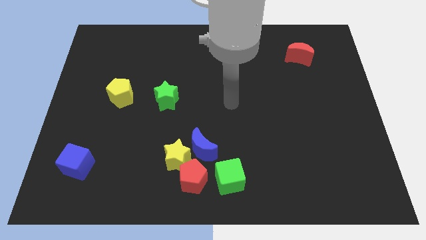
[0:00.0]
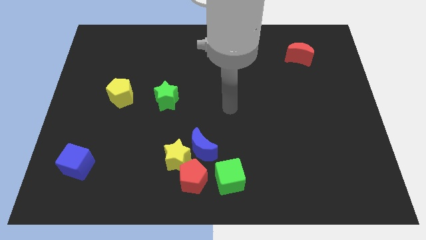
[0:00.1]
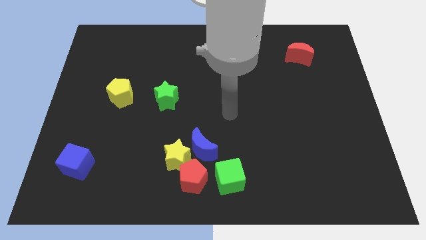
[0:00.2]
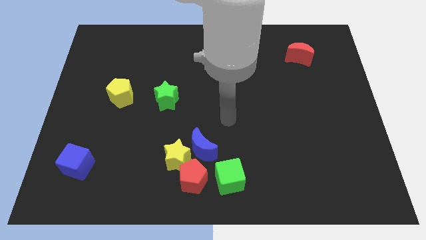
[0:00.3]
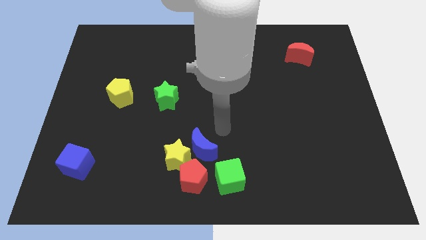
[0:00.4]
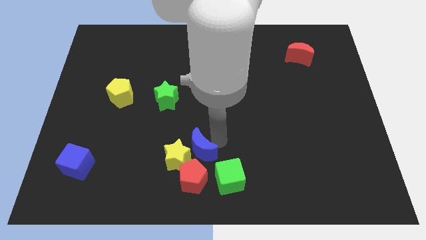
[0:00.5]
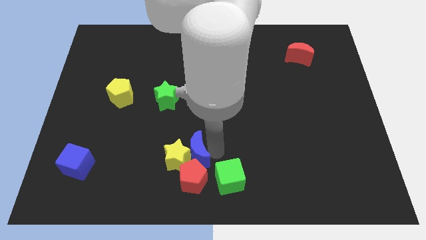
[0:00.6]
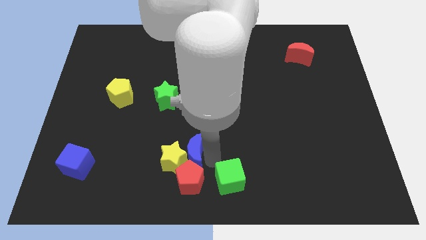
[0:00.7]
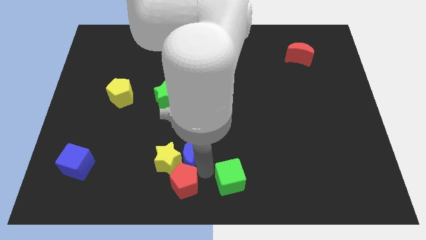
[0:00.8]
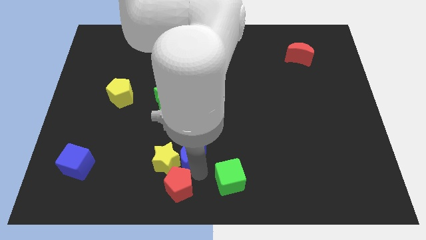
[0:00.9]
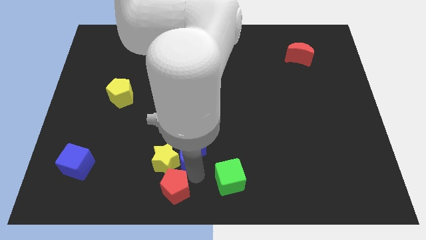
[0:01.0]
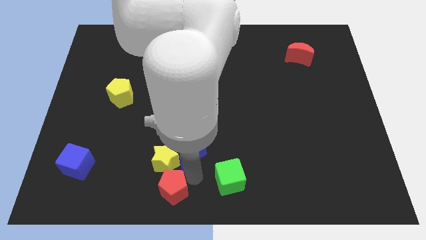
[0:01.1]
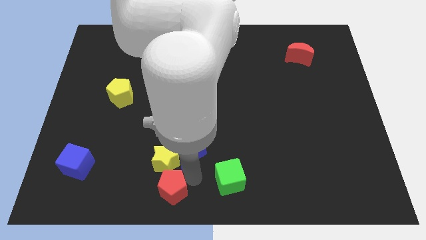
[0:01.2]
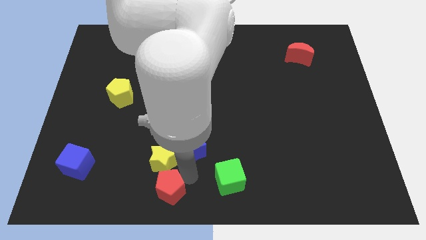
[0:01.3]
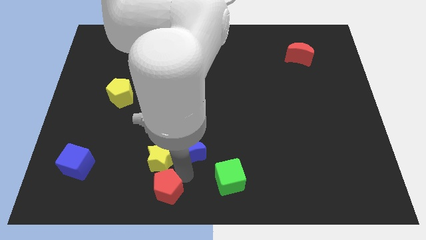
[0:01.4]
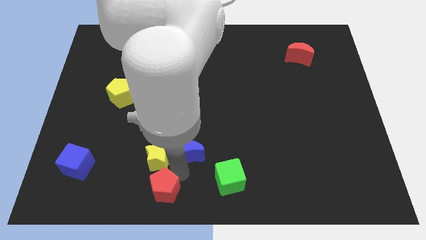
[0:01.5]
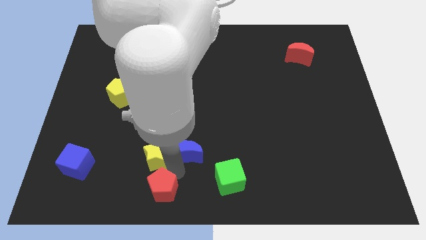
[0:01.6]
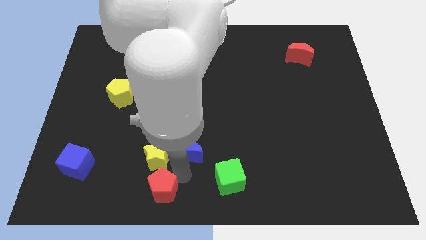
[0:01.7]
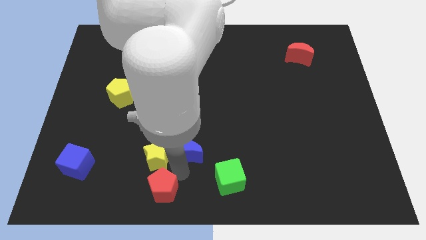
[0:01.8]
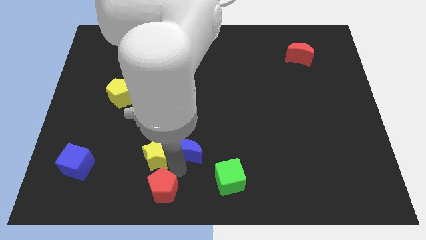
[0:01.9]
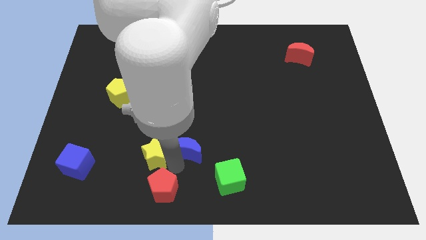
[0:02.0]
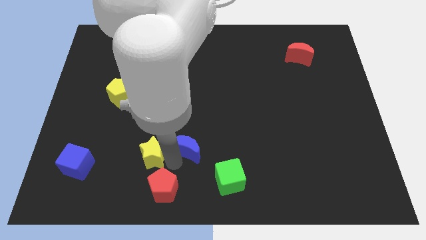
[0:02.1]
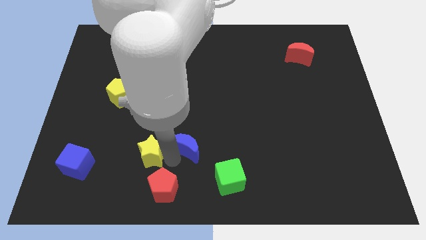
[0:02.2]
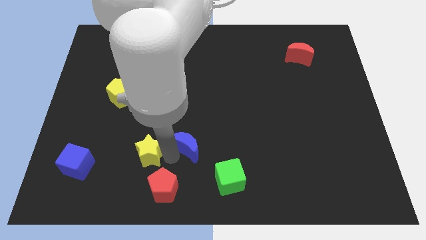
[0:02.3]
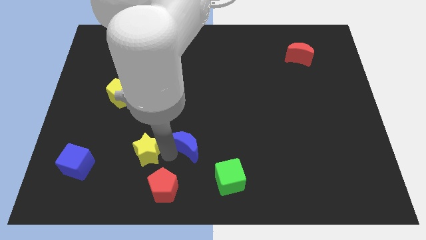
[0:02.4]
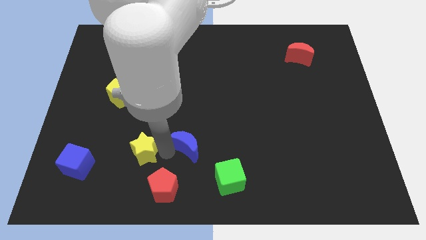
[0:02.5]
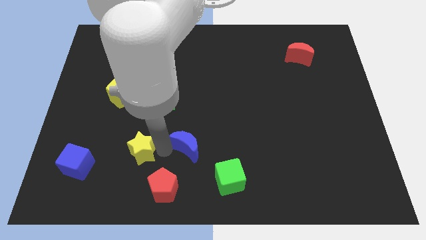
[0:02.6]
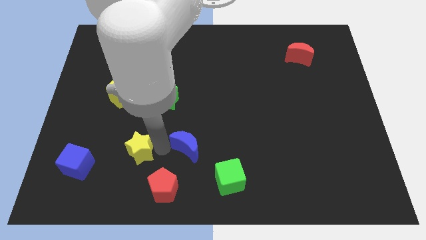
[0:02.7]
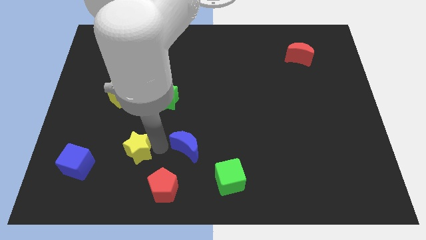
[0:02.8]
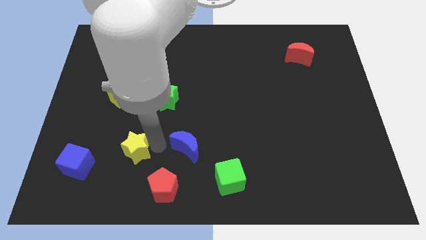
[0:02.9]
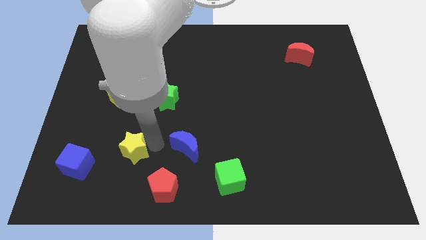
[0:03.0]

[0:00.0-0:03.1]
move the yellow star away from the blue moon and red pentagon

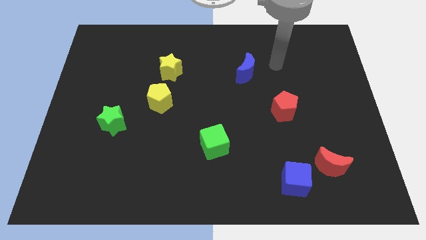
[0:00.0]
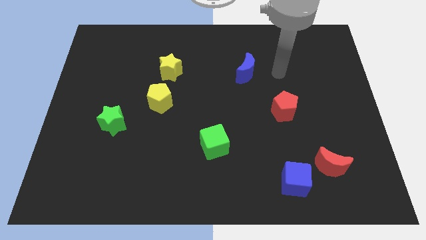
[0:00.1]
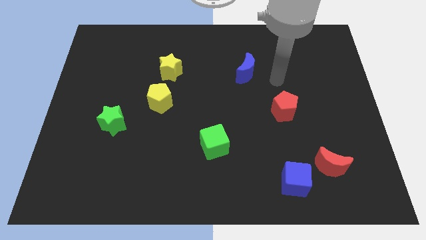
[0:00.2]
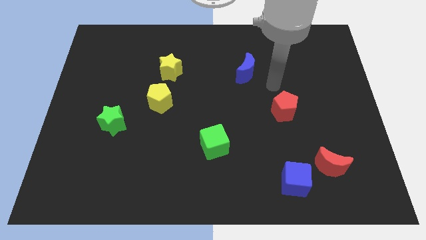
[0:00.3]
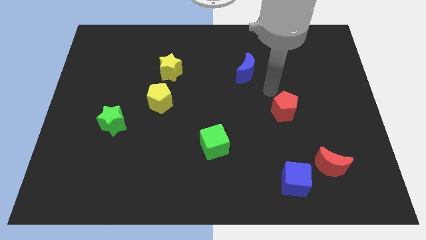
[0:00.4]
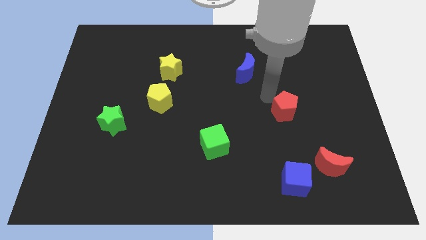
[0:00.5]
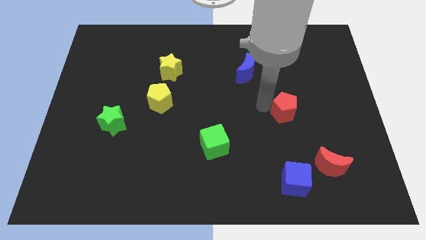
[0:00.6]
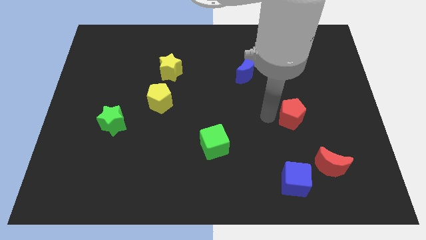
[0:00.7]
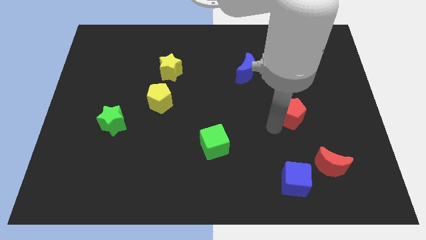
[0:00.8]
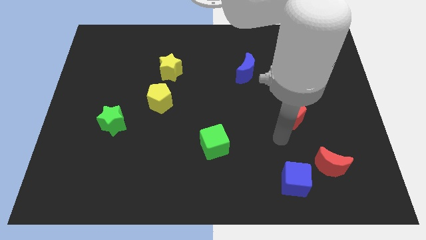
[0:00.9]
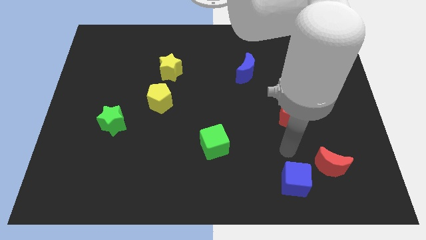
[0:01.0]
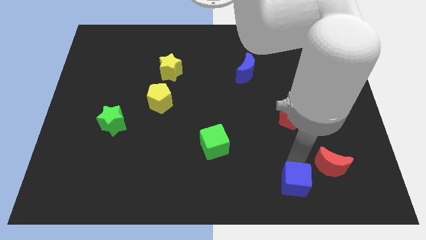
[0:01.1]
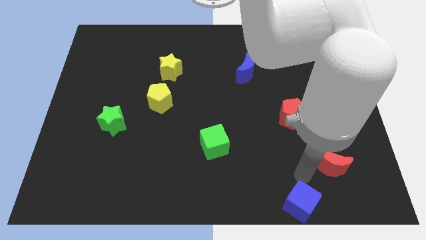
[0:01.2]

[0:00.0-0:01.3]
separate the red moon from the blue cube

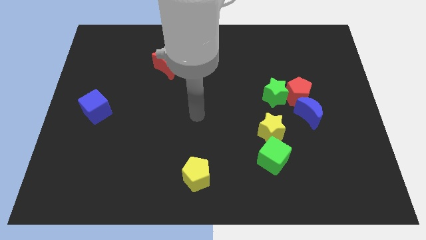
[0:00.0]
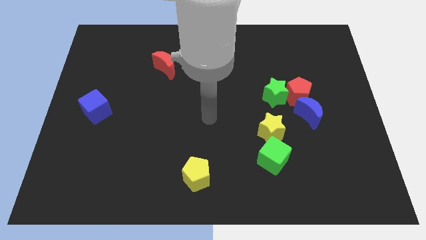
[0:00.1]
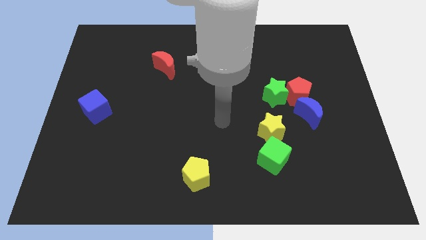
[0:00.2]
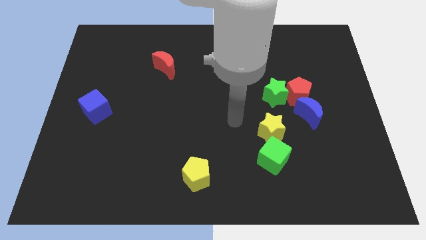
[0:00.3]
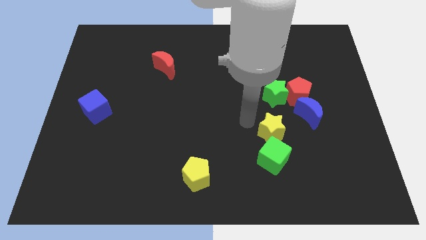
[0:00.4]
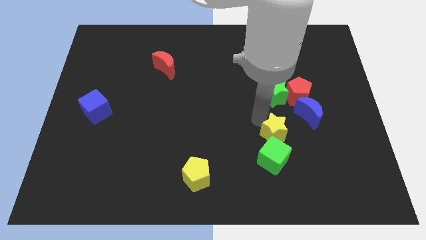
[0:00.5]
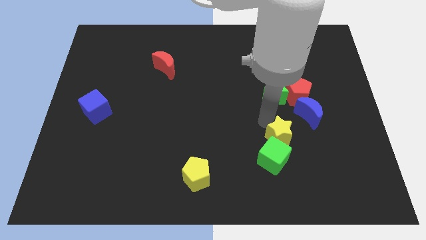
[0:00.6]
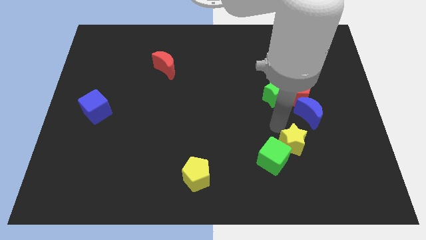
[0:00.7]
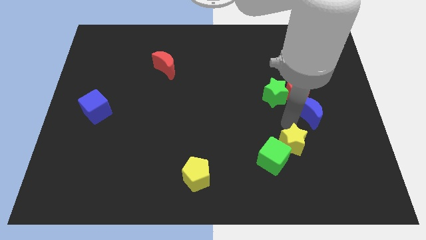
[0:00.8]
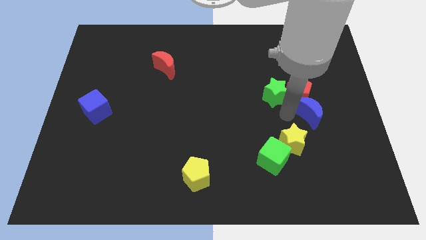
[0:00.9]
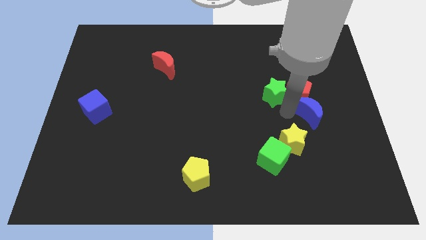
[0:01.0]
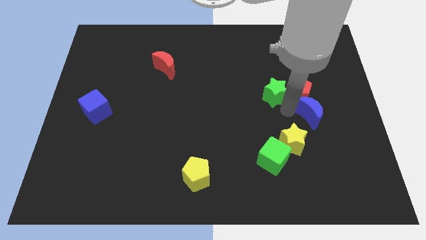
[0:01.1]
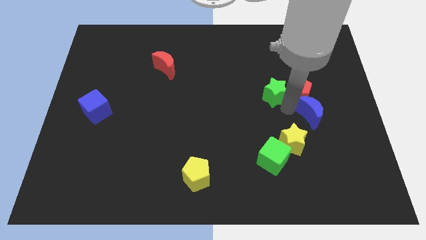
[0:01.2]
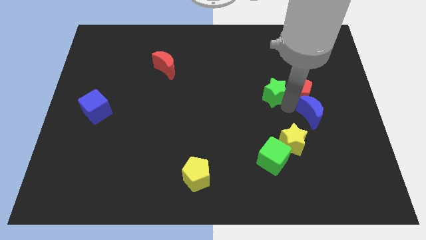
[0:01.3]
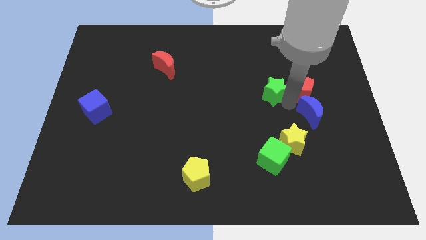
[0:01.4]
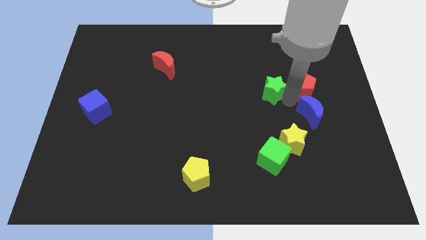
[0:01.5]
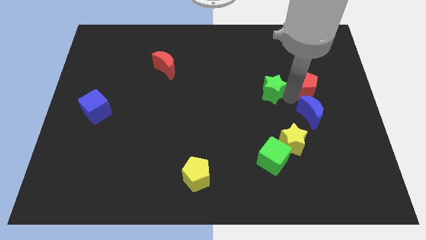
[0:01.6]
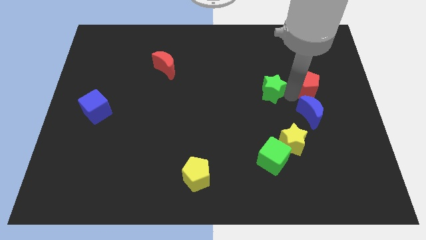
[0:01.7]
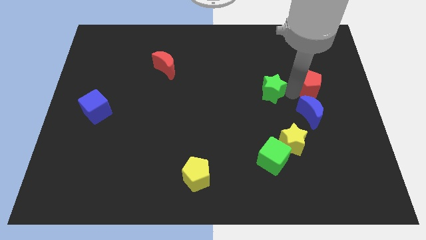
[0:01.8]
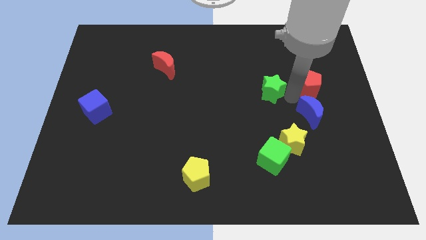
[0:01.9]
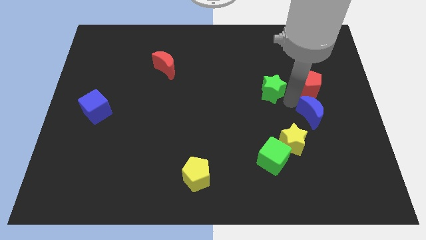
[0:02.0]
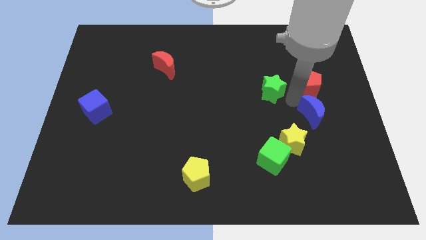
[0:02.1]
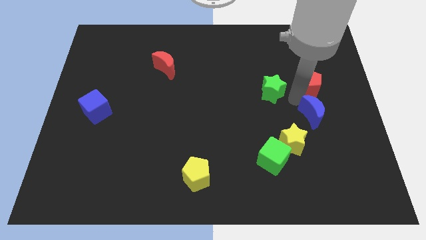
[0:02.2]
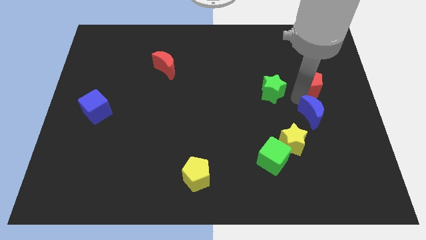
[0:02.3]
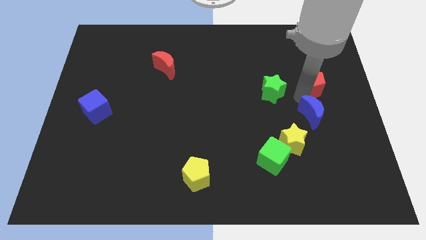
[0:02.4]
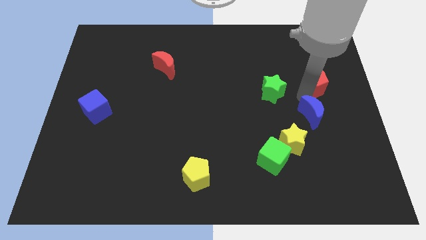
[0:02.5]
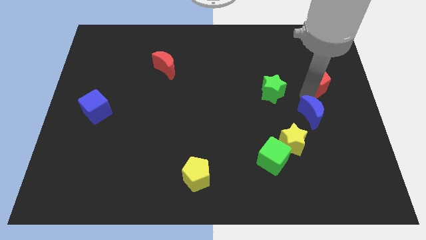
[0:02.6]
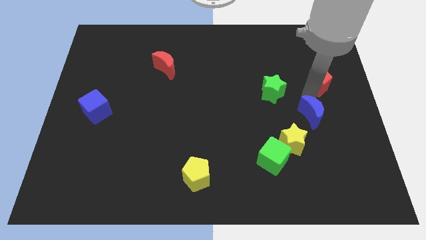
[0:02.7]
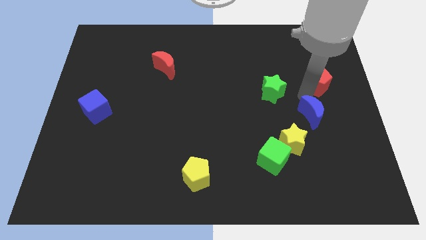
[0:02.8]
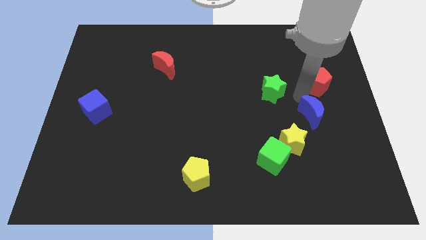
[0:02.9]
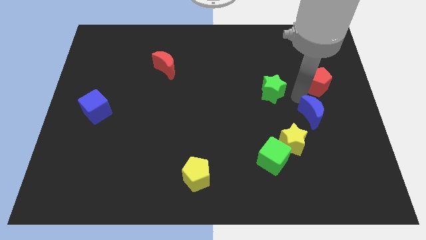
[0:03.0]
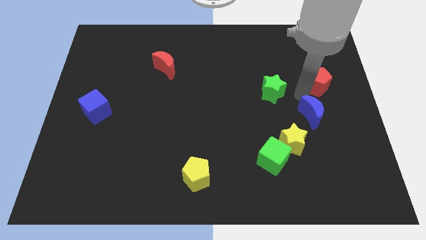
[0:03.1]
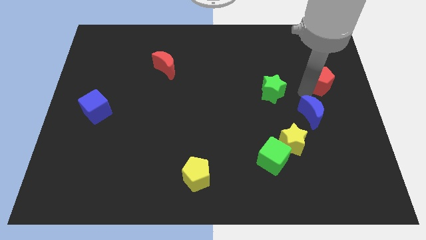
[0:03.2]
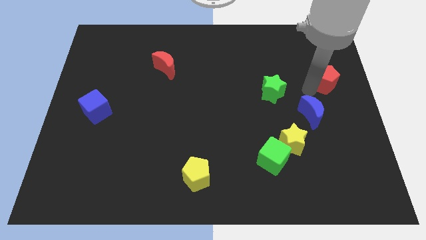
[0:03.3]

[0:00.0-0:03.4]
separate the red pentagon from the green star and blue moon

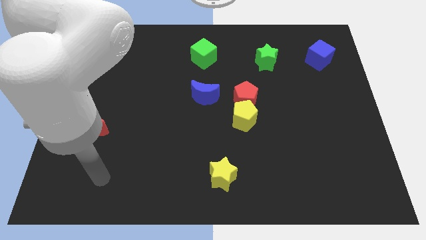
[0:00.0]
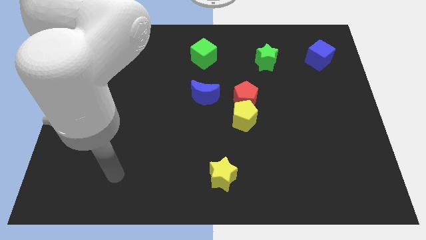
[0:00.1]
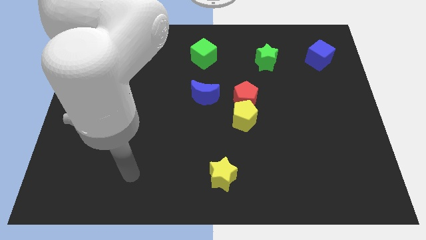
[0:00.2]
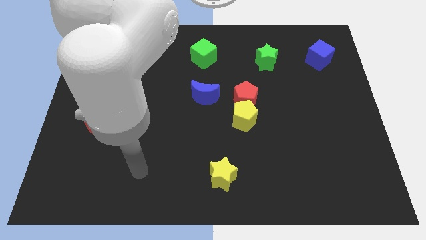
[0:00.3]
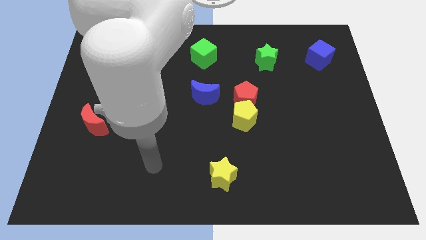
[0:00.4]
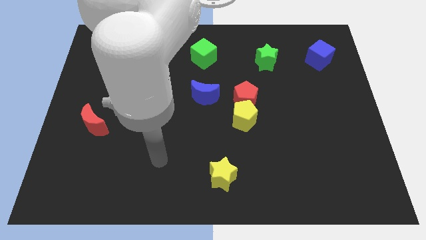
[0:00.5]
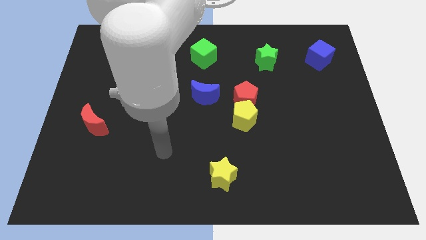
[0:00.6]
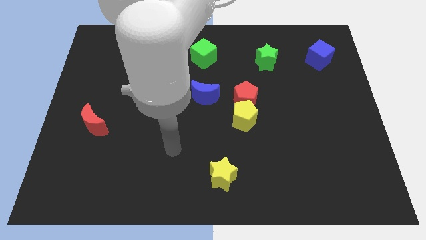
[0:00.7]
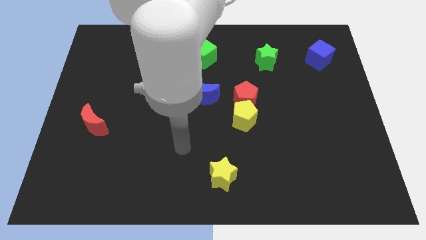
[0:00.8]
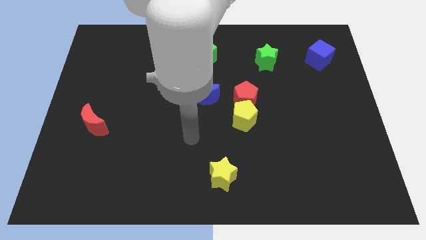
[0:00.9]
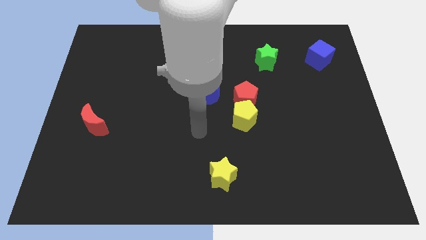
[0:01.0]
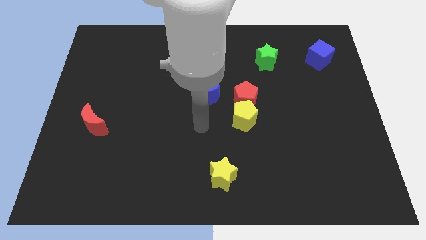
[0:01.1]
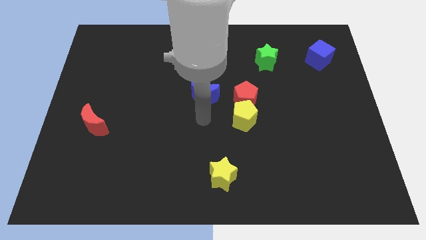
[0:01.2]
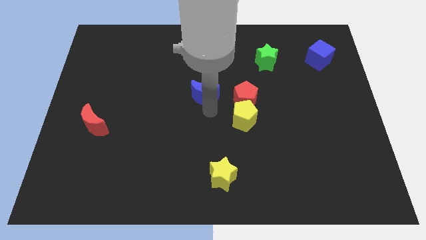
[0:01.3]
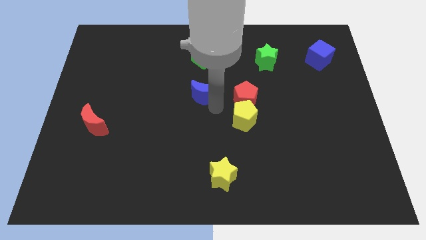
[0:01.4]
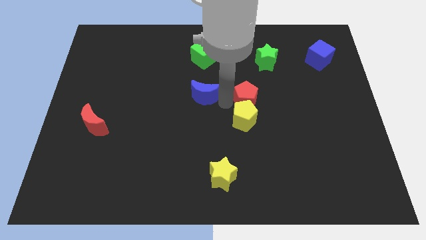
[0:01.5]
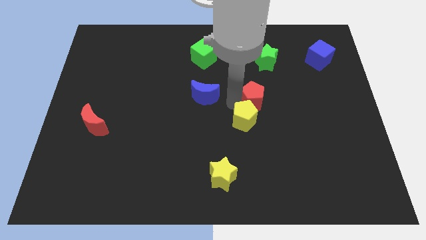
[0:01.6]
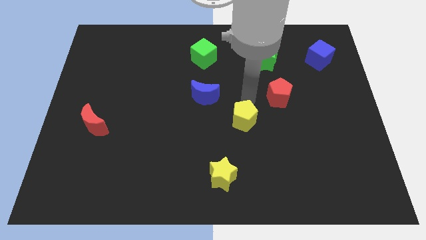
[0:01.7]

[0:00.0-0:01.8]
separate the yellow pentagon from the red pentagon

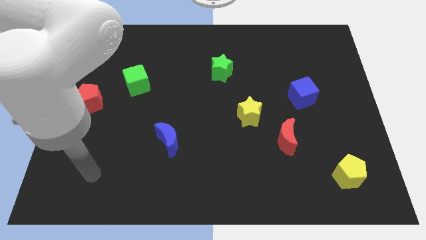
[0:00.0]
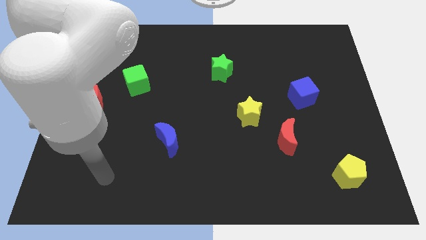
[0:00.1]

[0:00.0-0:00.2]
move the red moon away from the yellow star
